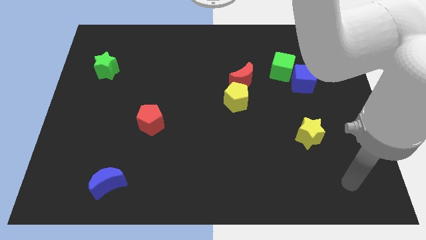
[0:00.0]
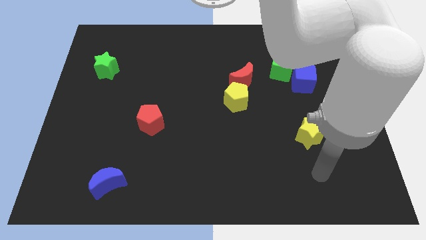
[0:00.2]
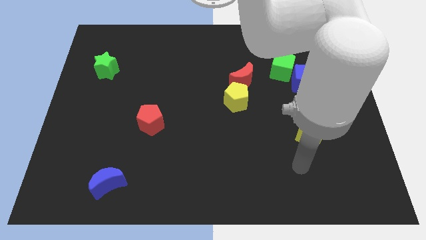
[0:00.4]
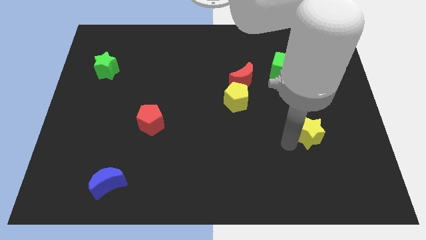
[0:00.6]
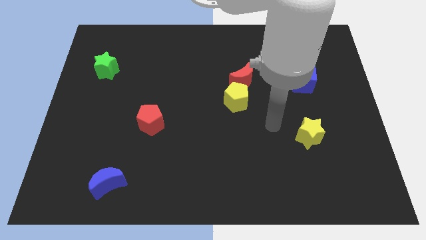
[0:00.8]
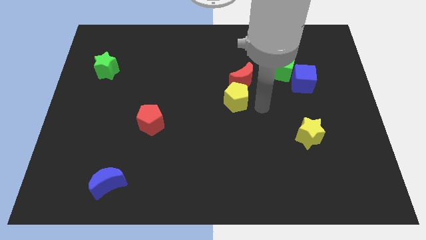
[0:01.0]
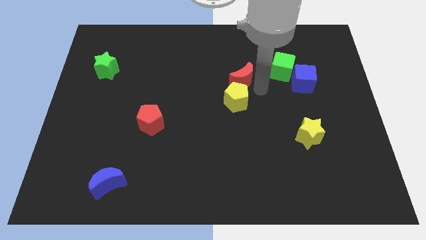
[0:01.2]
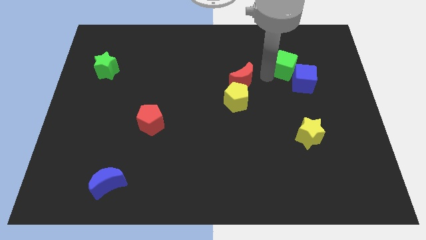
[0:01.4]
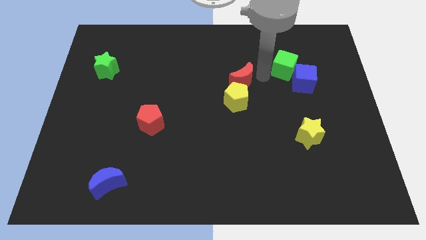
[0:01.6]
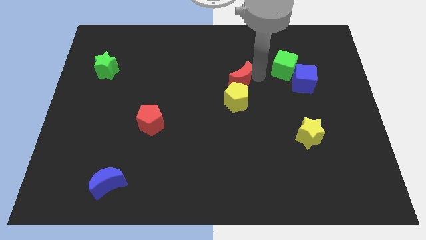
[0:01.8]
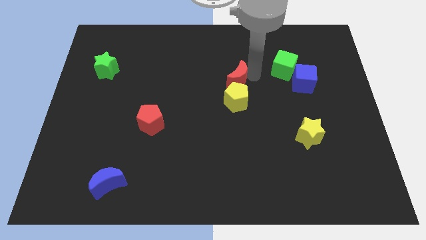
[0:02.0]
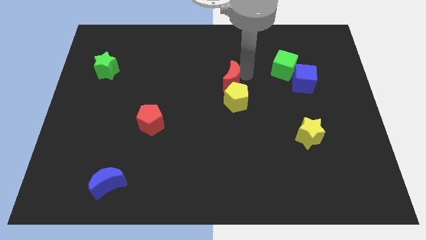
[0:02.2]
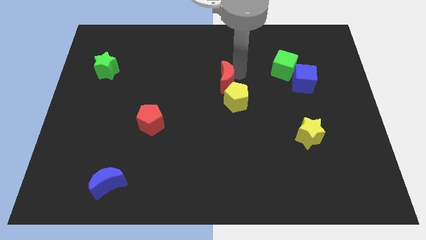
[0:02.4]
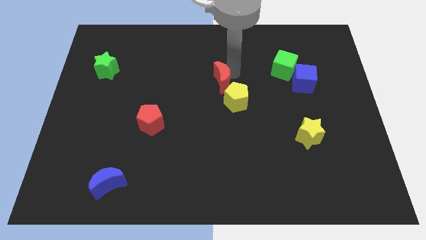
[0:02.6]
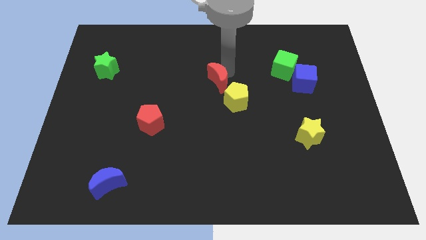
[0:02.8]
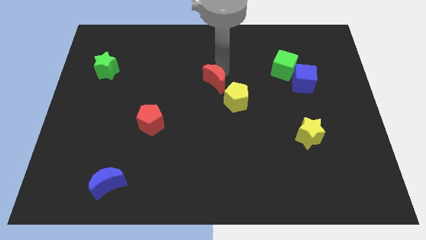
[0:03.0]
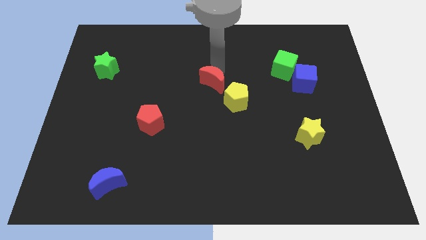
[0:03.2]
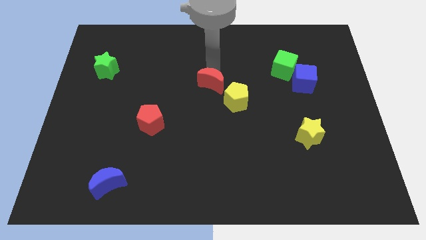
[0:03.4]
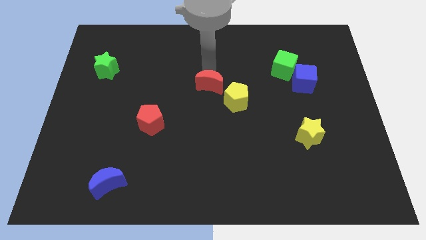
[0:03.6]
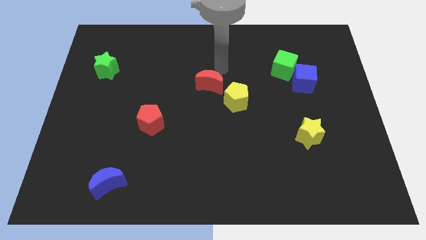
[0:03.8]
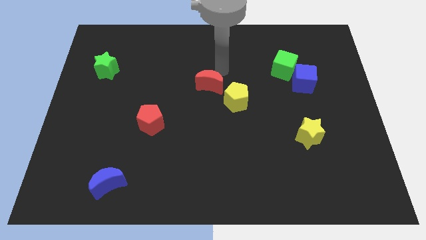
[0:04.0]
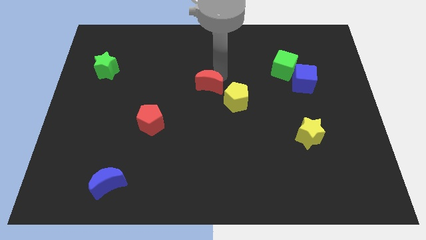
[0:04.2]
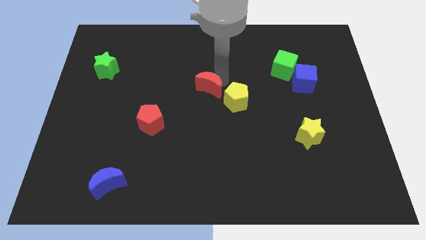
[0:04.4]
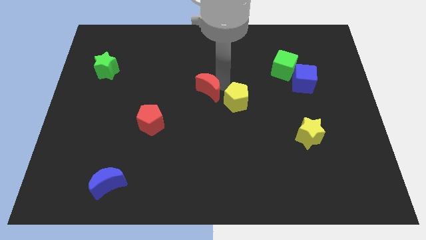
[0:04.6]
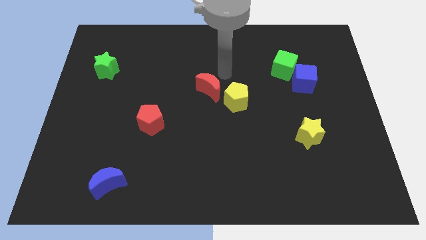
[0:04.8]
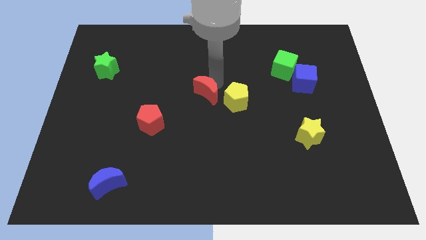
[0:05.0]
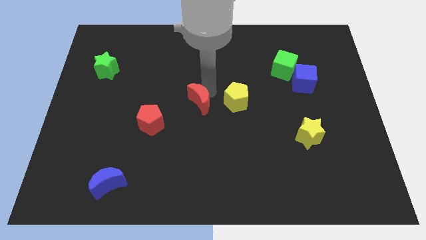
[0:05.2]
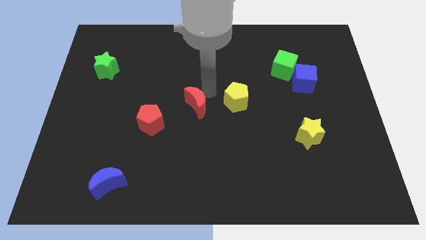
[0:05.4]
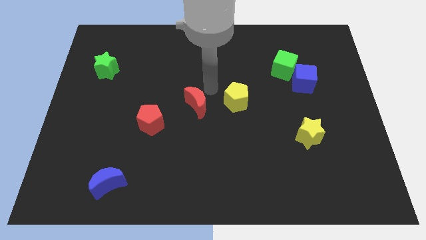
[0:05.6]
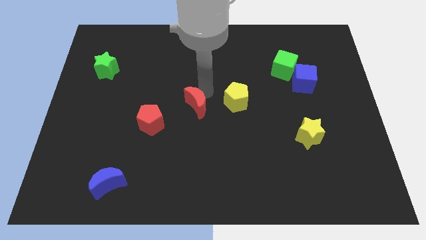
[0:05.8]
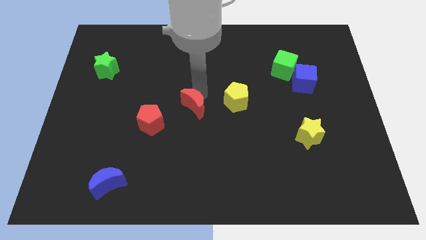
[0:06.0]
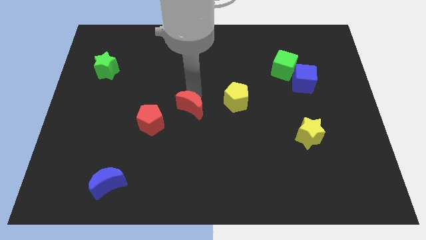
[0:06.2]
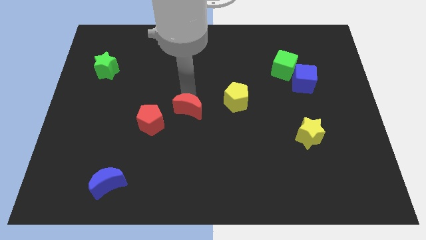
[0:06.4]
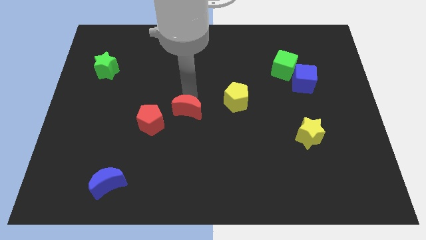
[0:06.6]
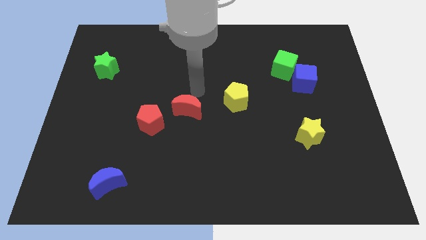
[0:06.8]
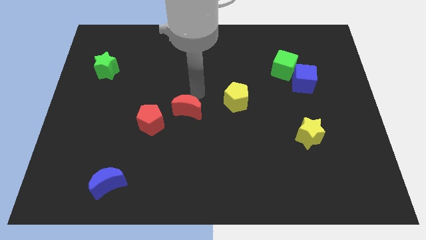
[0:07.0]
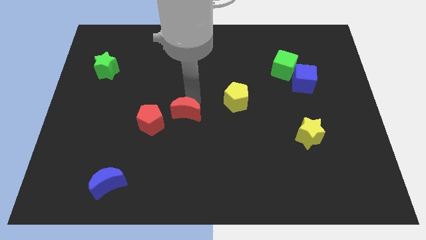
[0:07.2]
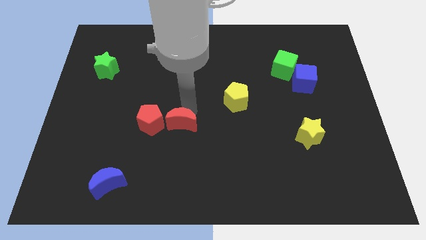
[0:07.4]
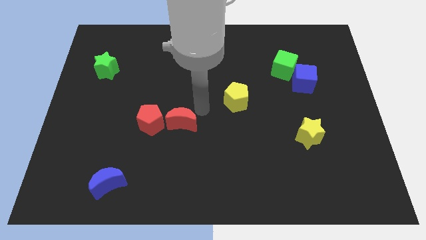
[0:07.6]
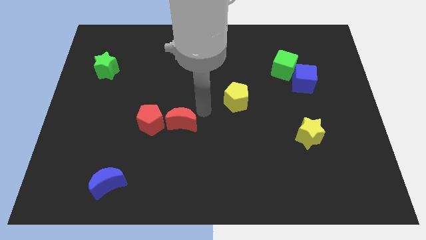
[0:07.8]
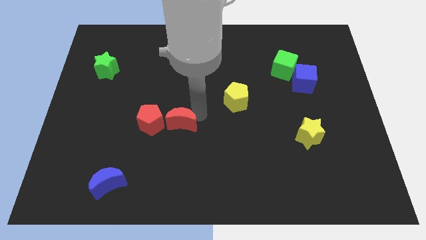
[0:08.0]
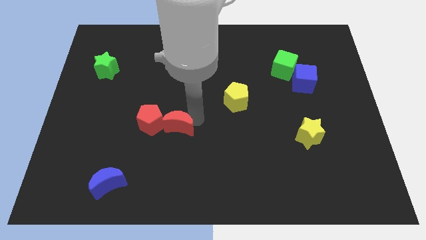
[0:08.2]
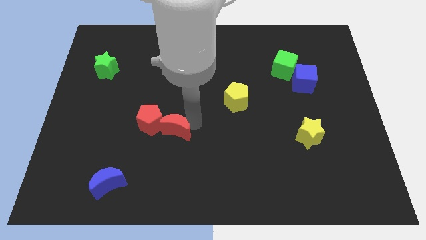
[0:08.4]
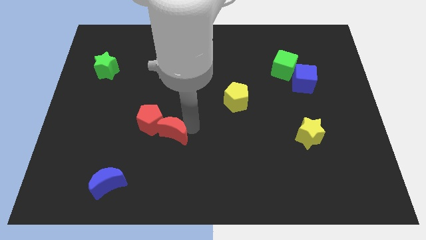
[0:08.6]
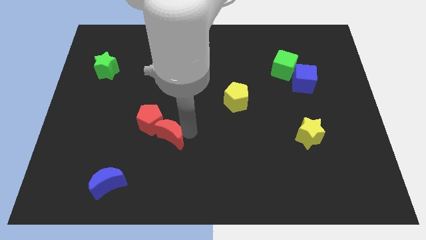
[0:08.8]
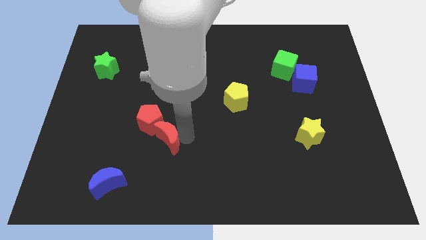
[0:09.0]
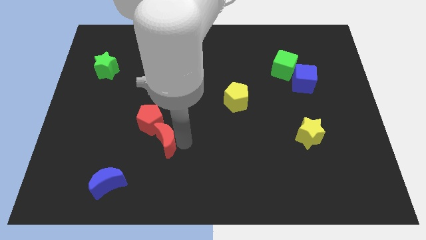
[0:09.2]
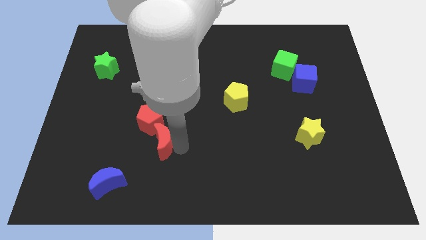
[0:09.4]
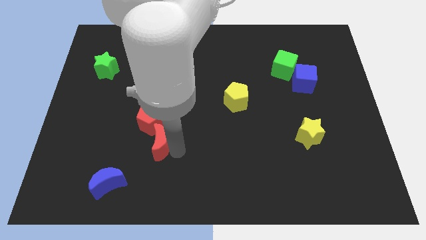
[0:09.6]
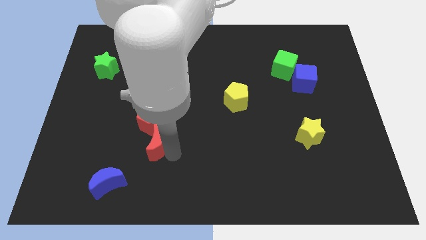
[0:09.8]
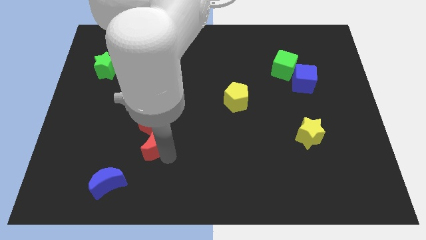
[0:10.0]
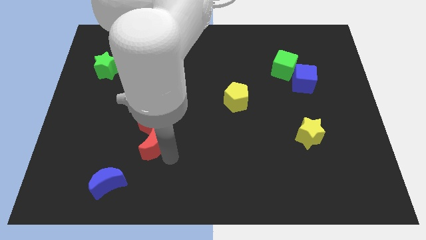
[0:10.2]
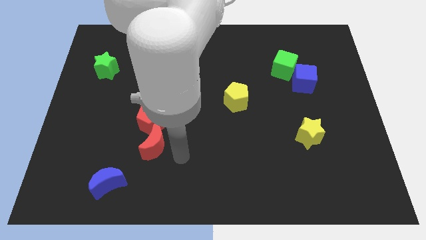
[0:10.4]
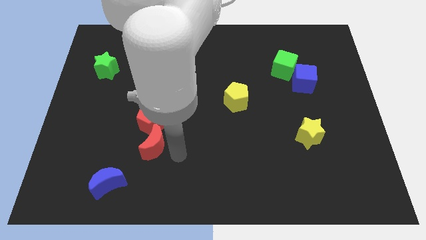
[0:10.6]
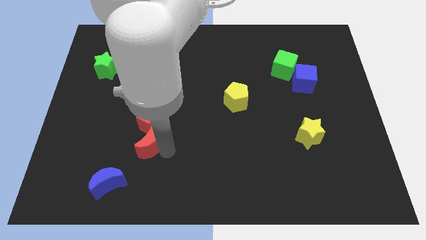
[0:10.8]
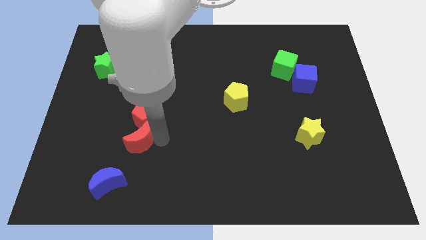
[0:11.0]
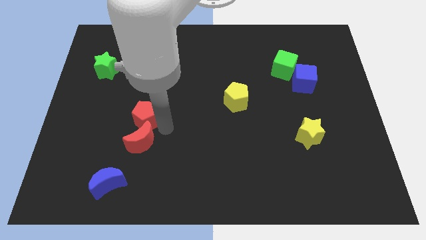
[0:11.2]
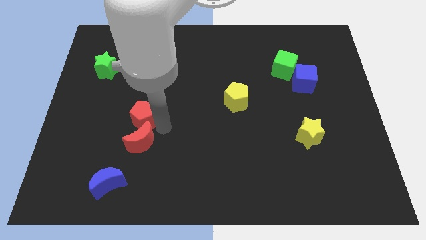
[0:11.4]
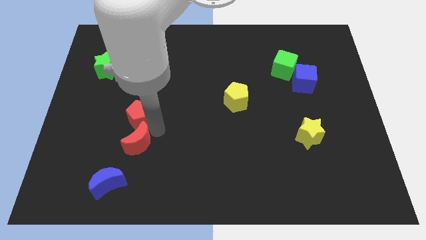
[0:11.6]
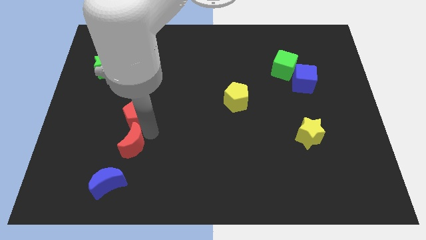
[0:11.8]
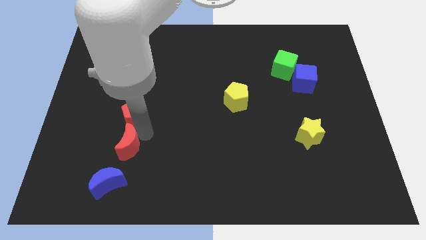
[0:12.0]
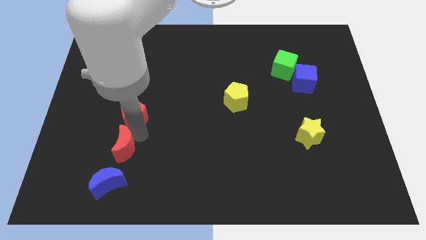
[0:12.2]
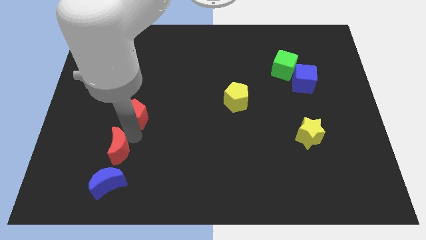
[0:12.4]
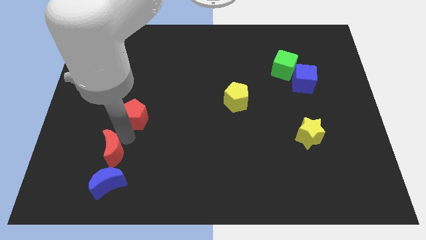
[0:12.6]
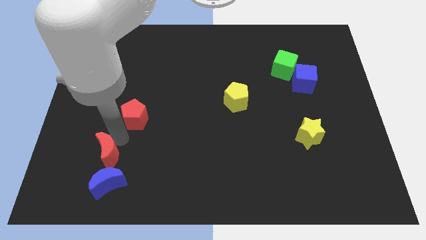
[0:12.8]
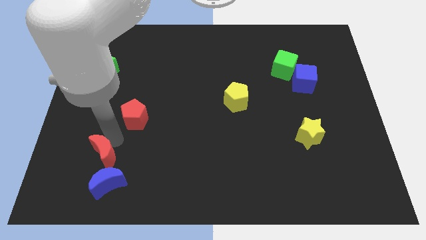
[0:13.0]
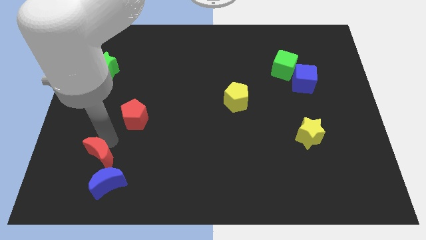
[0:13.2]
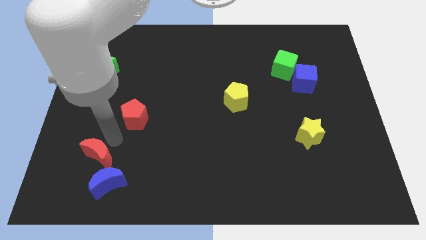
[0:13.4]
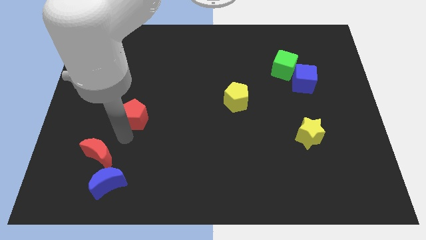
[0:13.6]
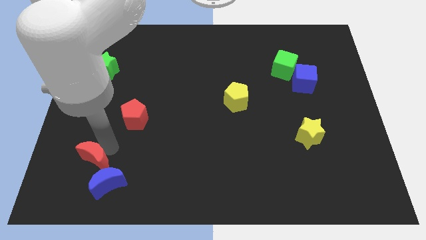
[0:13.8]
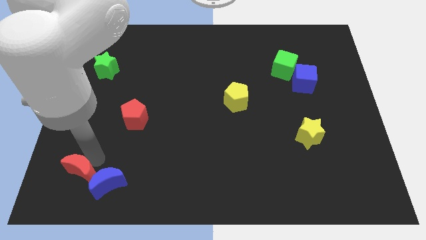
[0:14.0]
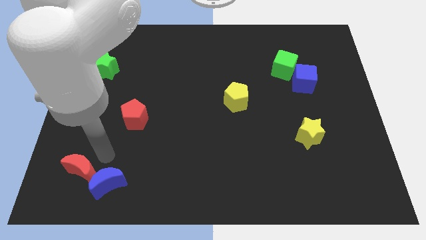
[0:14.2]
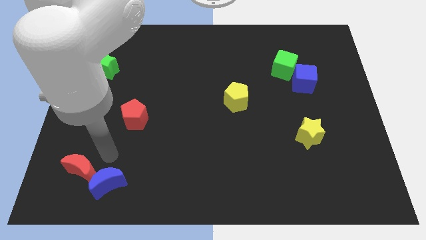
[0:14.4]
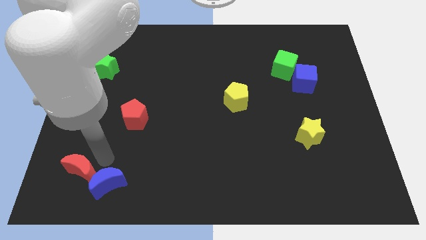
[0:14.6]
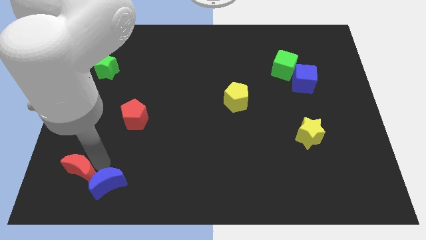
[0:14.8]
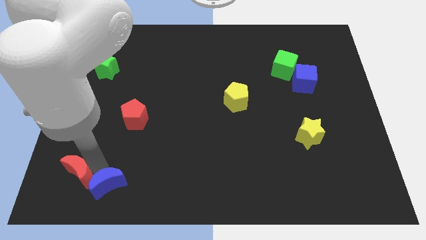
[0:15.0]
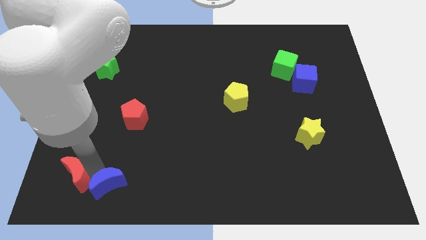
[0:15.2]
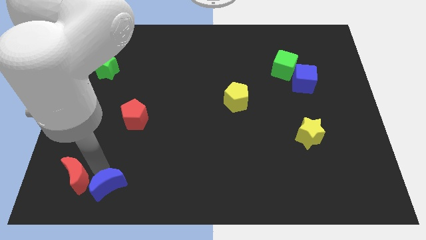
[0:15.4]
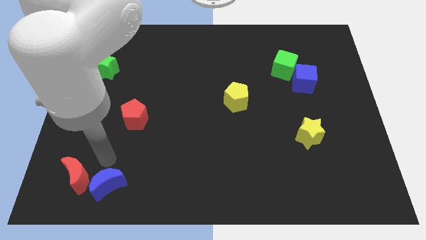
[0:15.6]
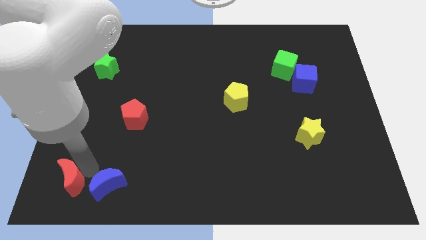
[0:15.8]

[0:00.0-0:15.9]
move the red moon to the bottom left corner
